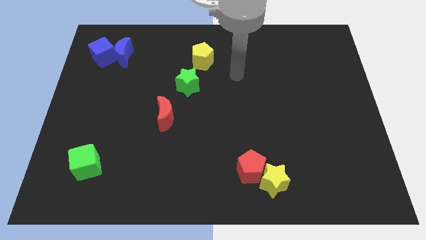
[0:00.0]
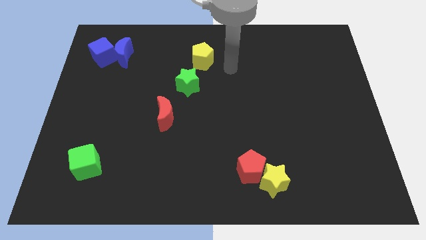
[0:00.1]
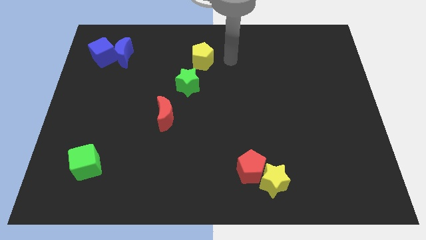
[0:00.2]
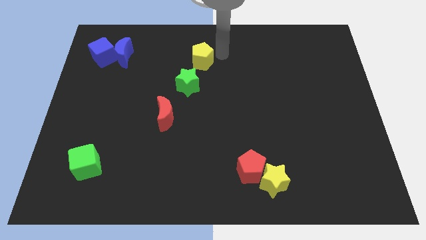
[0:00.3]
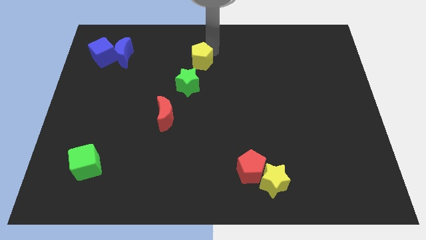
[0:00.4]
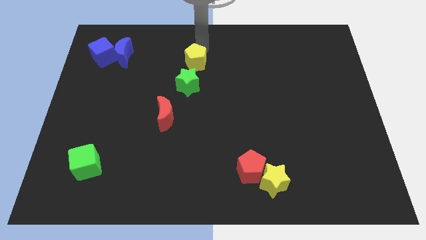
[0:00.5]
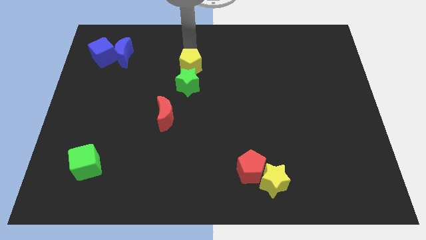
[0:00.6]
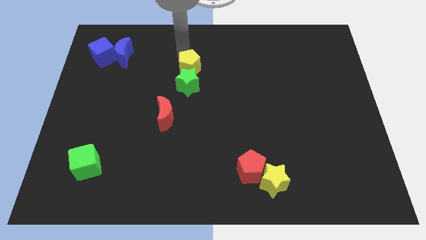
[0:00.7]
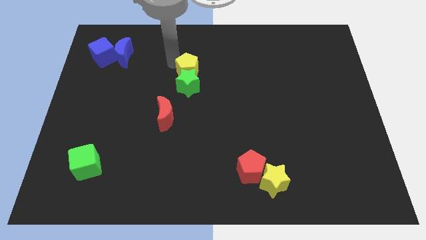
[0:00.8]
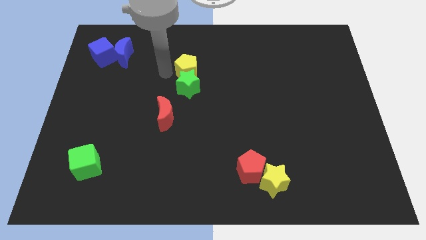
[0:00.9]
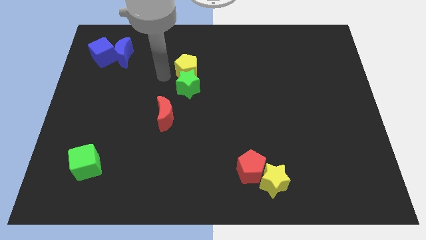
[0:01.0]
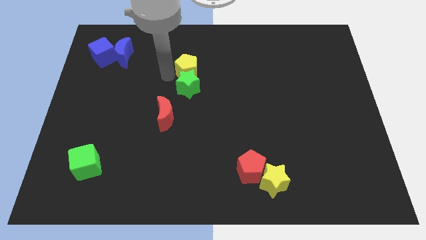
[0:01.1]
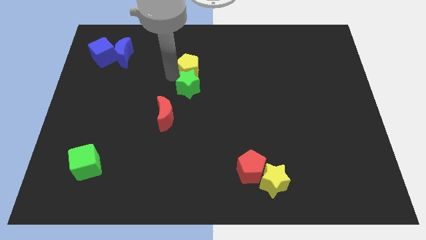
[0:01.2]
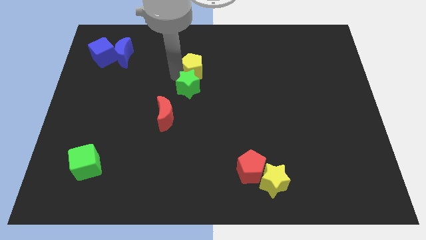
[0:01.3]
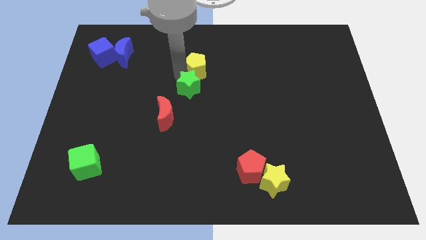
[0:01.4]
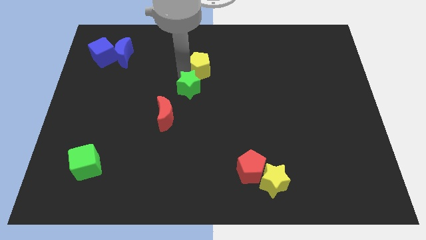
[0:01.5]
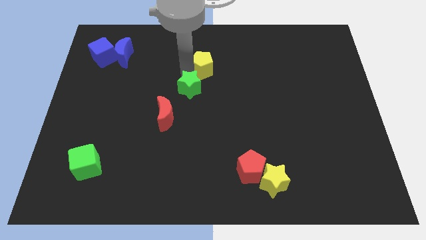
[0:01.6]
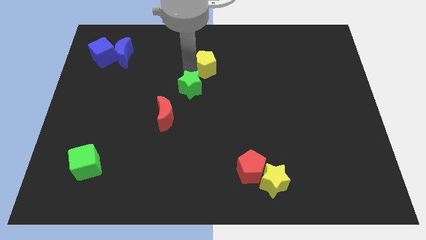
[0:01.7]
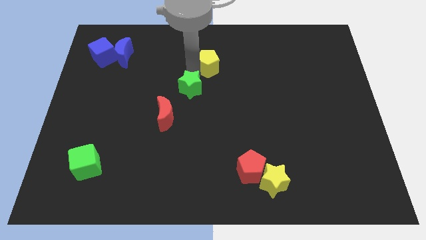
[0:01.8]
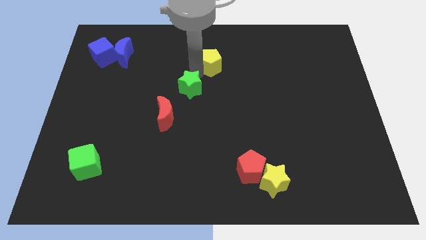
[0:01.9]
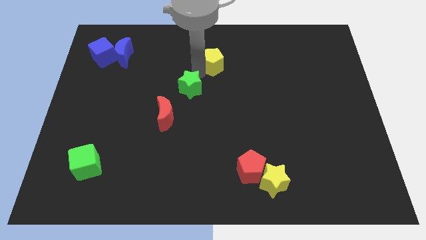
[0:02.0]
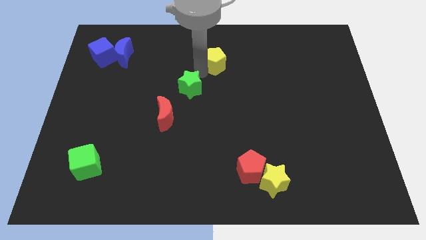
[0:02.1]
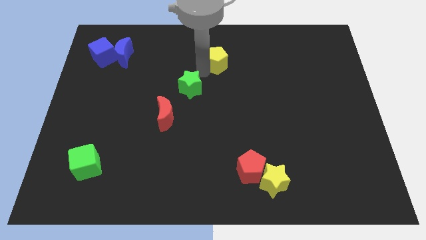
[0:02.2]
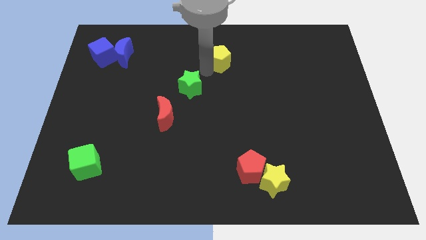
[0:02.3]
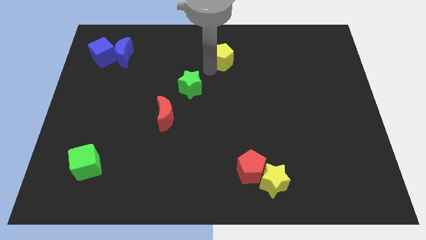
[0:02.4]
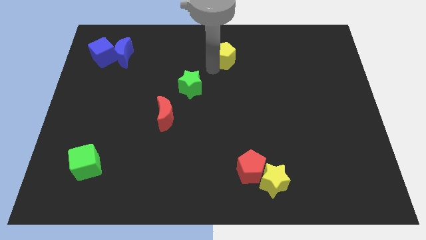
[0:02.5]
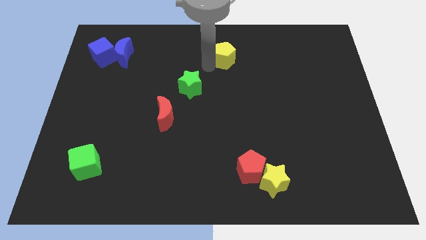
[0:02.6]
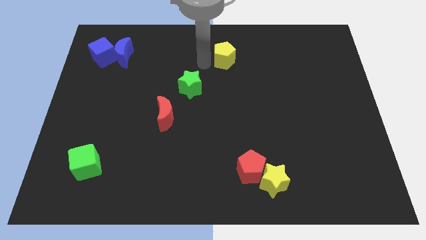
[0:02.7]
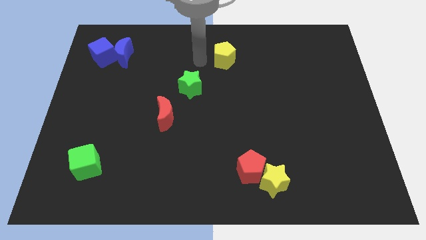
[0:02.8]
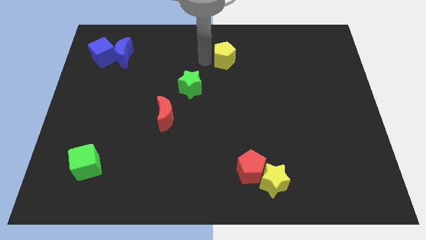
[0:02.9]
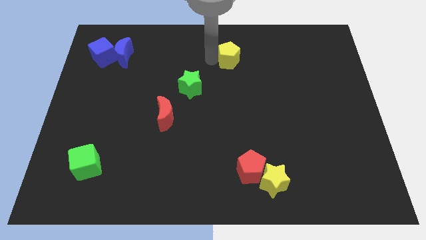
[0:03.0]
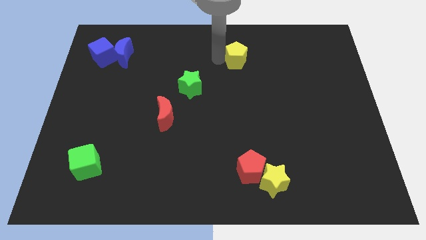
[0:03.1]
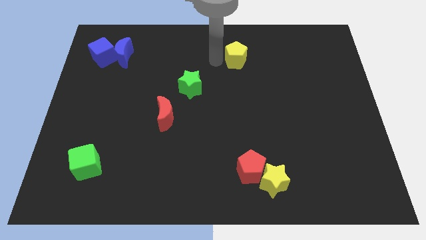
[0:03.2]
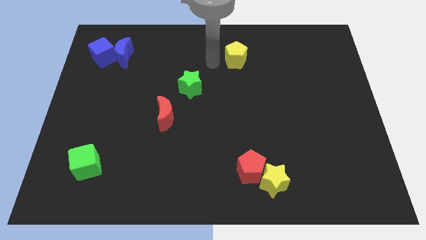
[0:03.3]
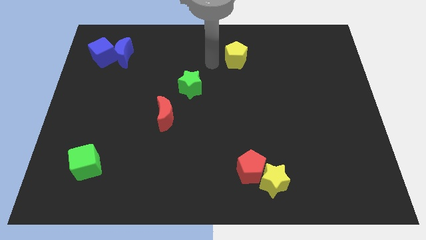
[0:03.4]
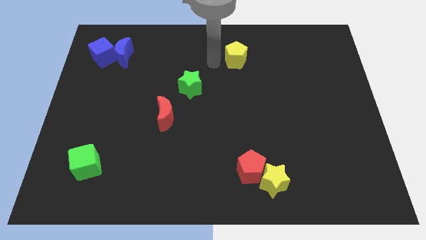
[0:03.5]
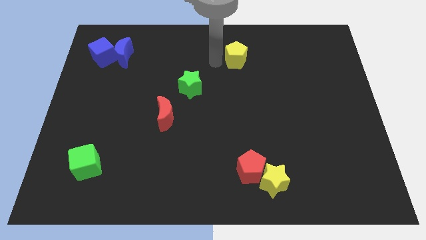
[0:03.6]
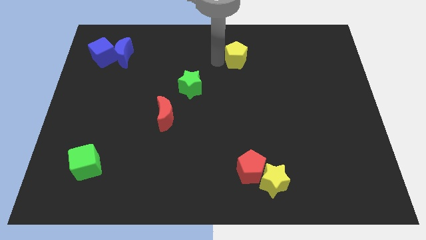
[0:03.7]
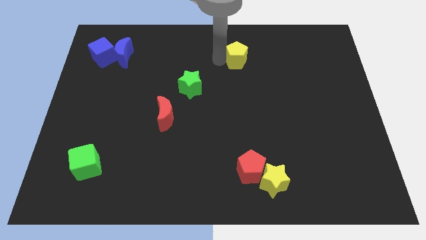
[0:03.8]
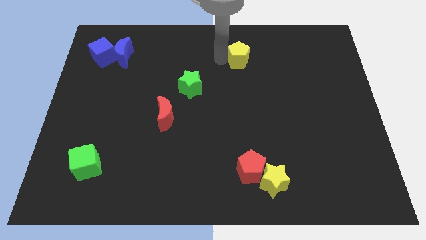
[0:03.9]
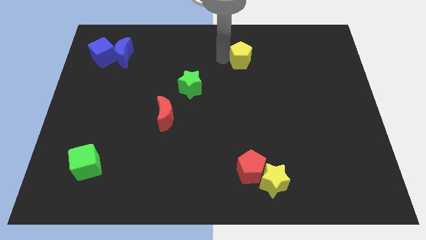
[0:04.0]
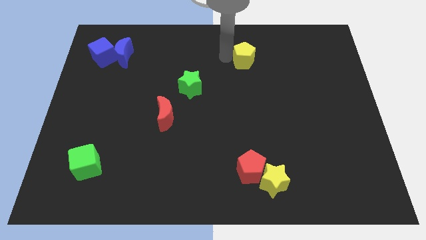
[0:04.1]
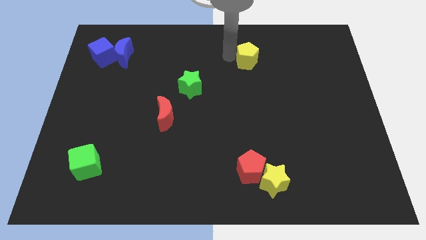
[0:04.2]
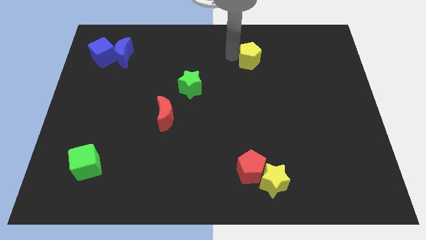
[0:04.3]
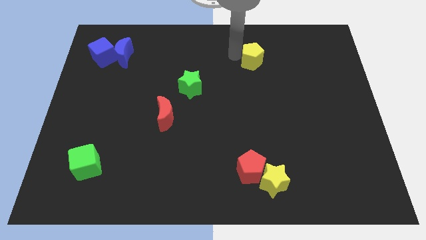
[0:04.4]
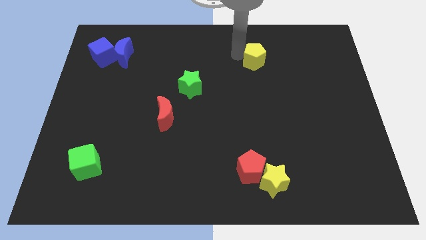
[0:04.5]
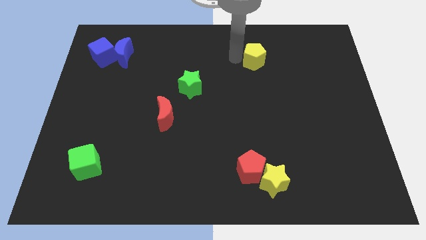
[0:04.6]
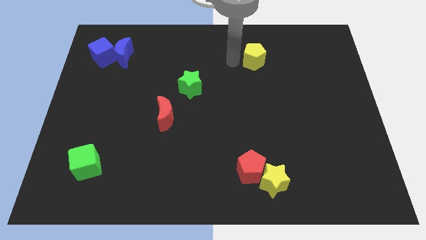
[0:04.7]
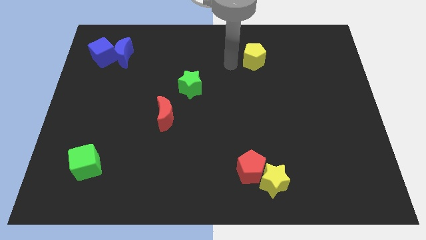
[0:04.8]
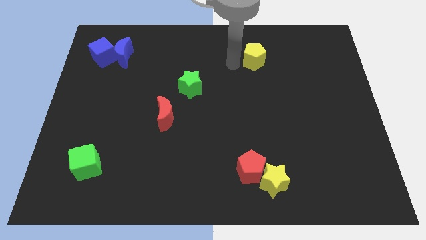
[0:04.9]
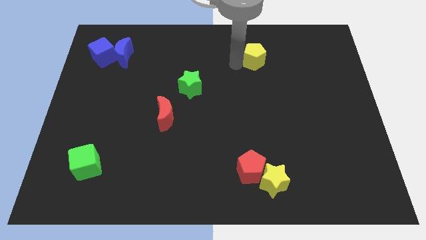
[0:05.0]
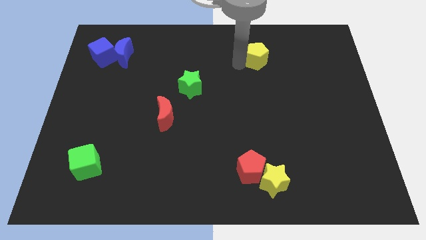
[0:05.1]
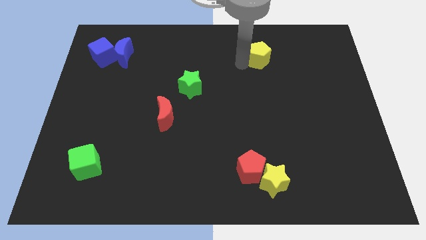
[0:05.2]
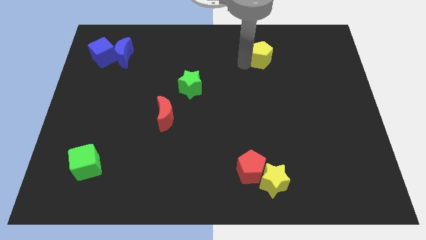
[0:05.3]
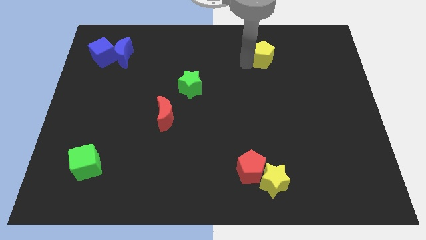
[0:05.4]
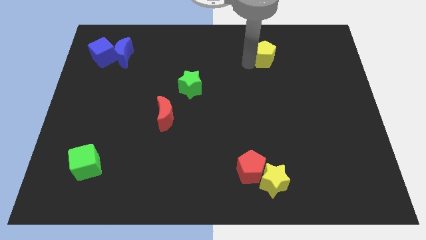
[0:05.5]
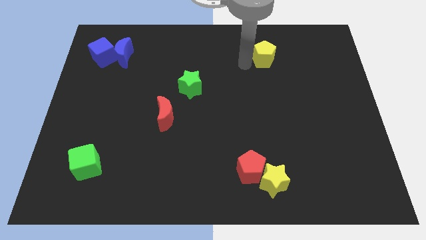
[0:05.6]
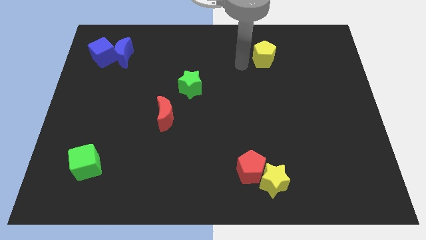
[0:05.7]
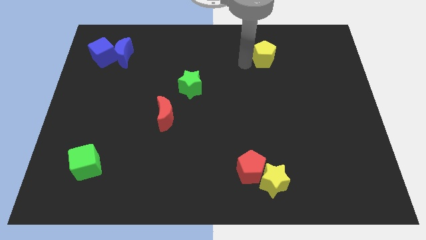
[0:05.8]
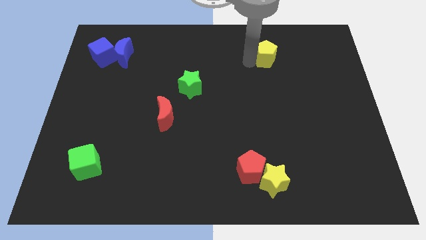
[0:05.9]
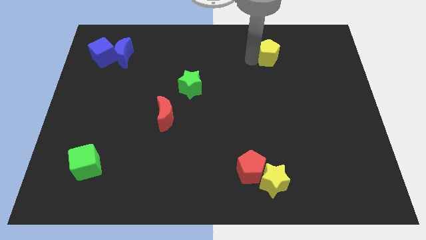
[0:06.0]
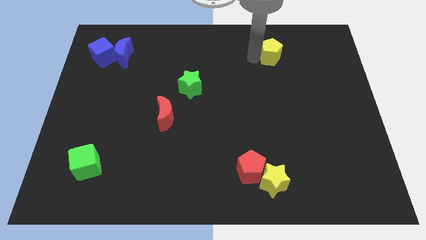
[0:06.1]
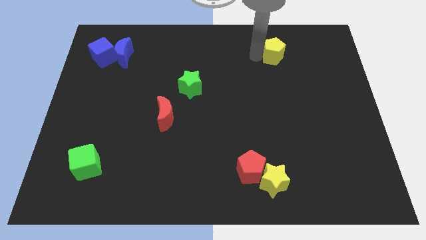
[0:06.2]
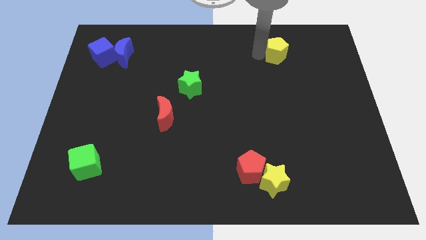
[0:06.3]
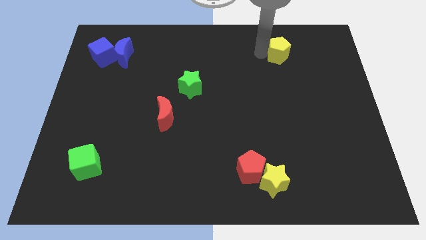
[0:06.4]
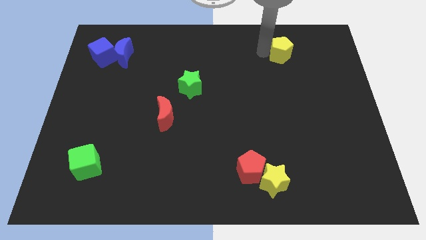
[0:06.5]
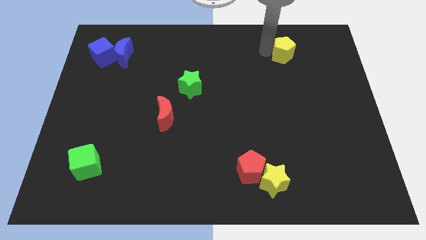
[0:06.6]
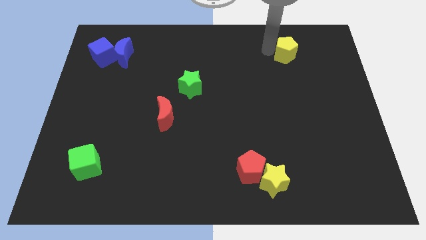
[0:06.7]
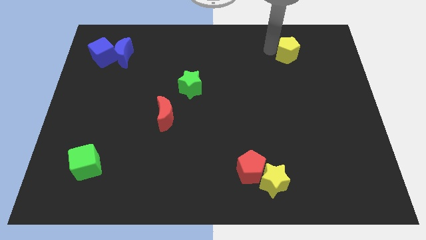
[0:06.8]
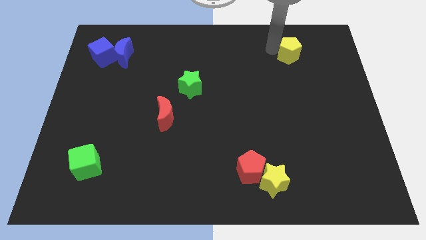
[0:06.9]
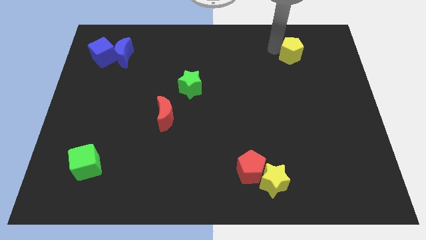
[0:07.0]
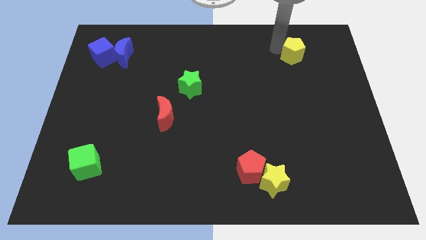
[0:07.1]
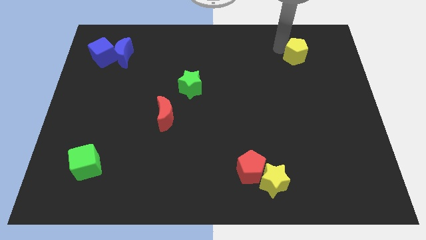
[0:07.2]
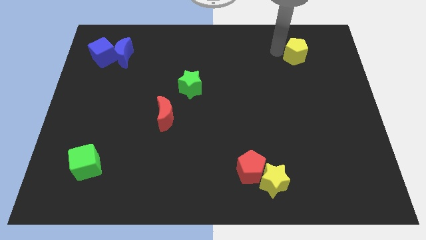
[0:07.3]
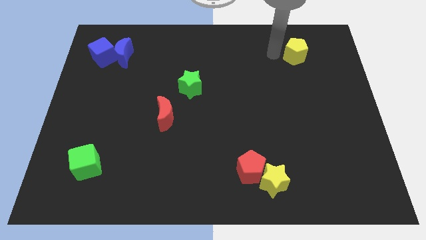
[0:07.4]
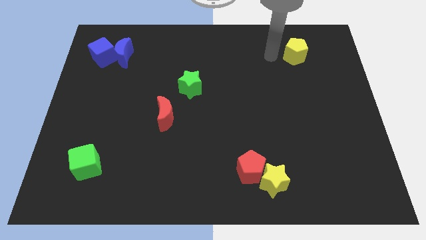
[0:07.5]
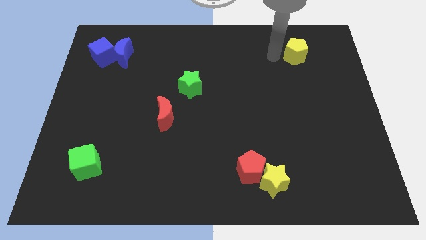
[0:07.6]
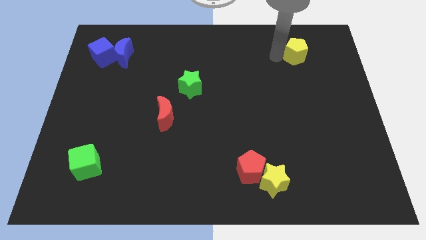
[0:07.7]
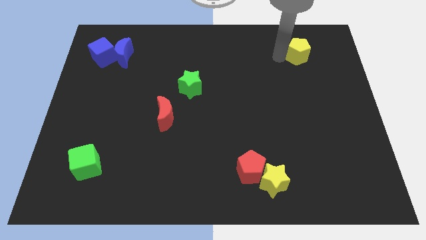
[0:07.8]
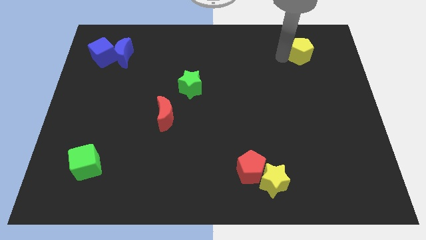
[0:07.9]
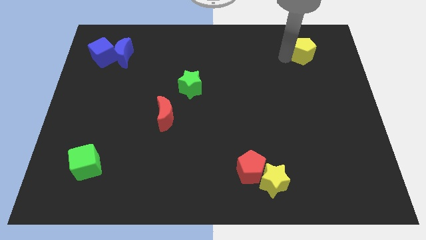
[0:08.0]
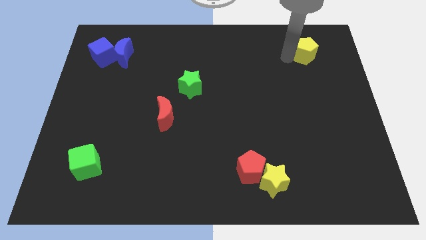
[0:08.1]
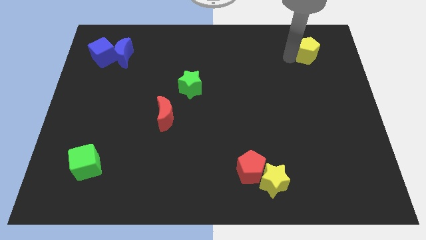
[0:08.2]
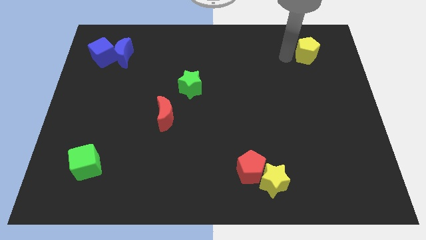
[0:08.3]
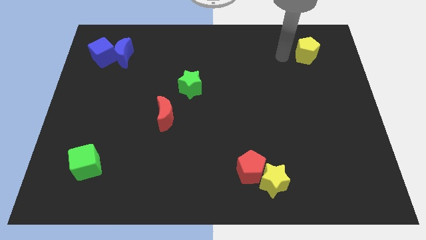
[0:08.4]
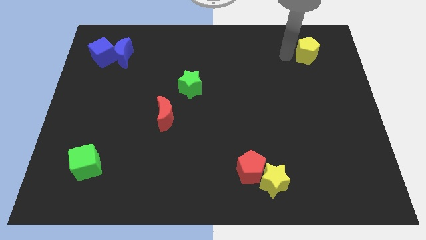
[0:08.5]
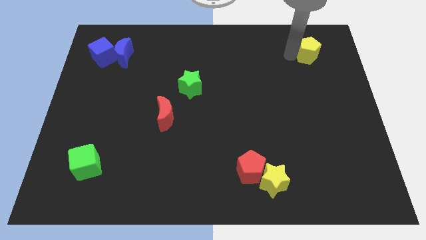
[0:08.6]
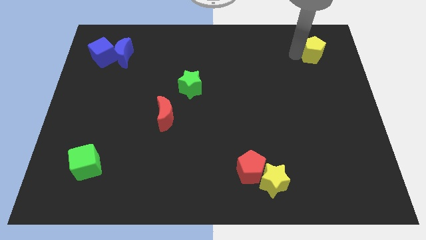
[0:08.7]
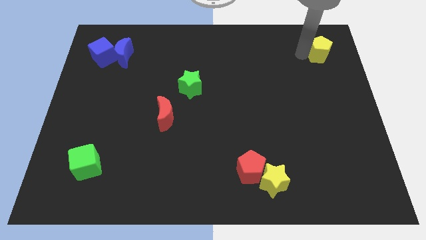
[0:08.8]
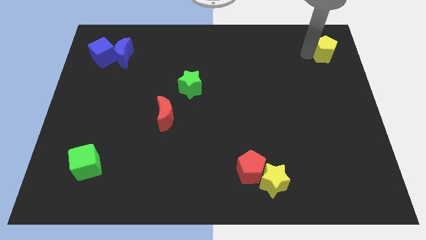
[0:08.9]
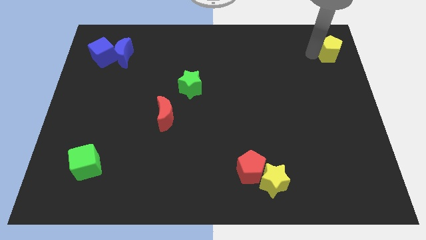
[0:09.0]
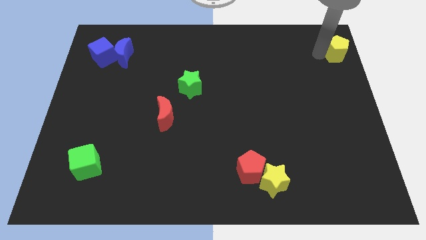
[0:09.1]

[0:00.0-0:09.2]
push the yellow pentagon to the top right corner
